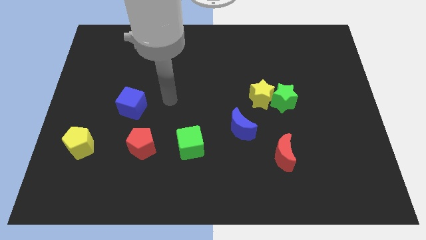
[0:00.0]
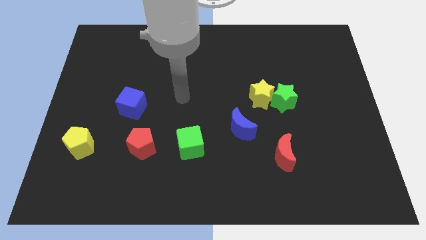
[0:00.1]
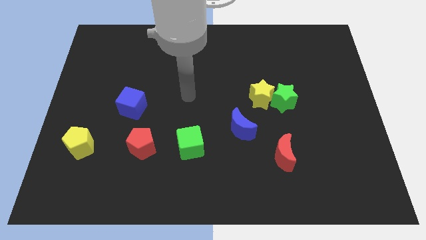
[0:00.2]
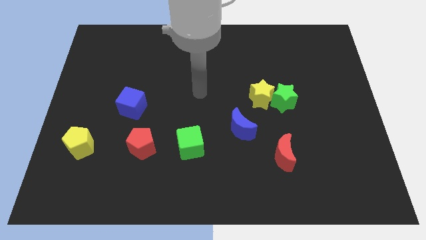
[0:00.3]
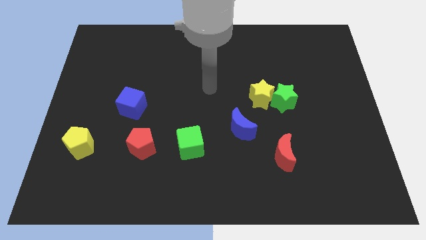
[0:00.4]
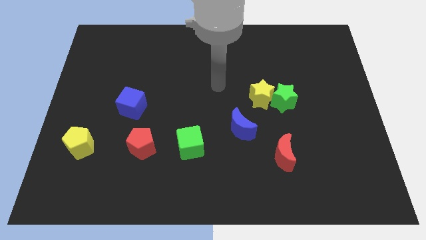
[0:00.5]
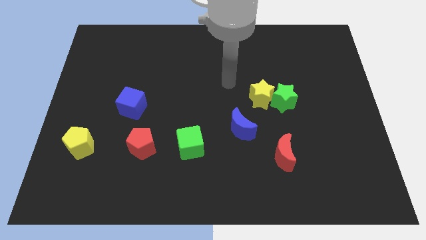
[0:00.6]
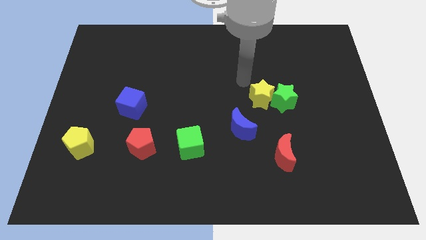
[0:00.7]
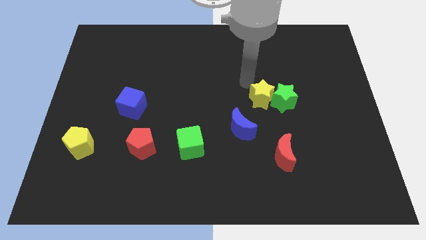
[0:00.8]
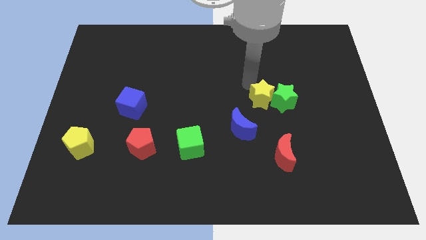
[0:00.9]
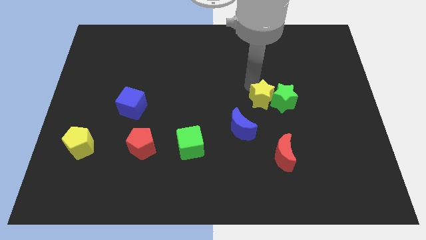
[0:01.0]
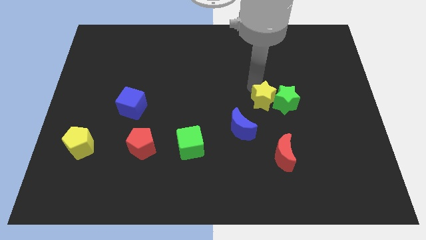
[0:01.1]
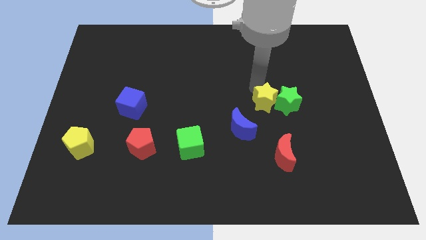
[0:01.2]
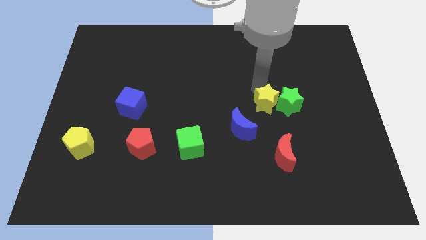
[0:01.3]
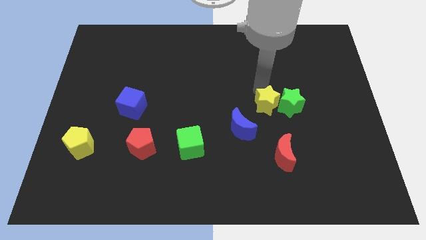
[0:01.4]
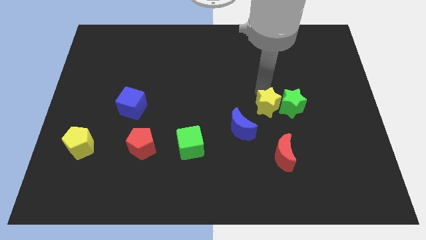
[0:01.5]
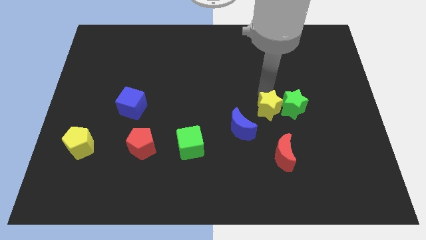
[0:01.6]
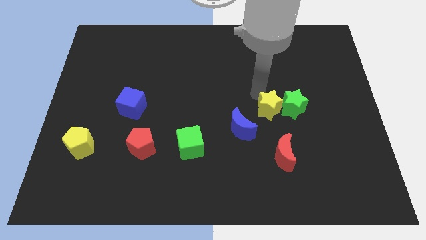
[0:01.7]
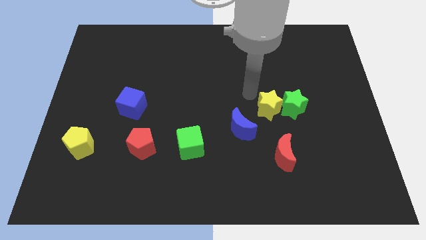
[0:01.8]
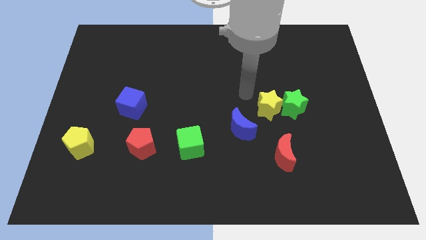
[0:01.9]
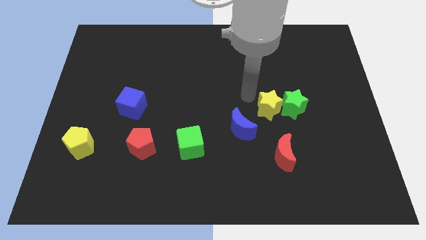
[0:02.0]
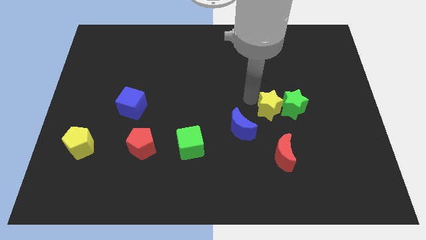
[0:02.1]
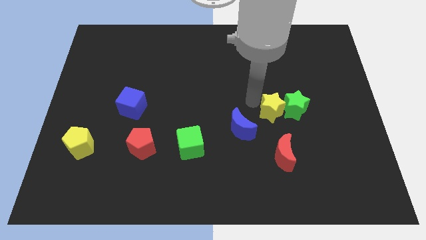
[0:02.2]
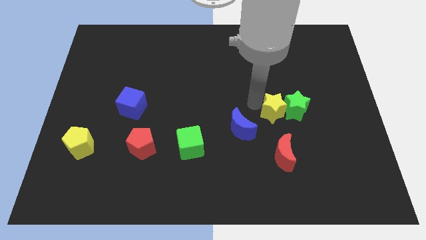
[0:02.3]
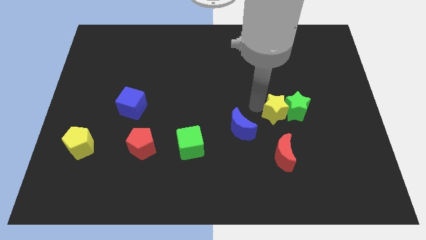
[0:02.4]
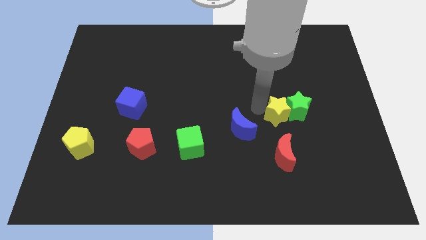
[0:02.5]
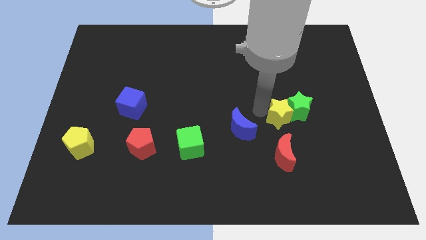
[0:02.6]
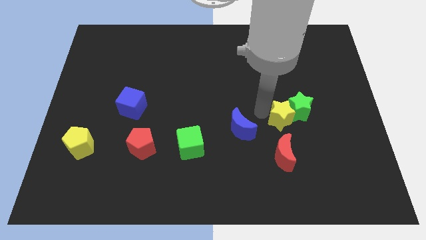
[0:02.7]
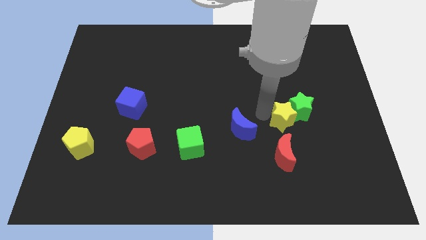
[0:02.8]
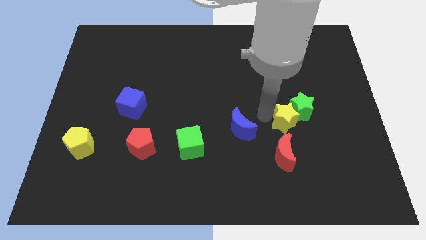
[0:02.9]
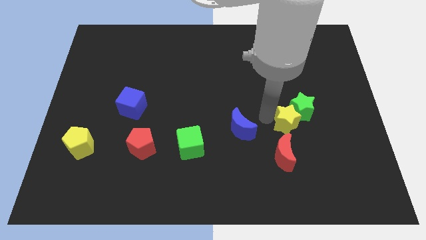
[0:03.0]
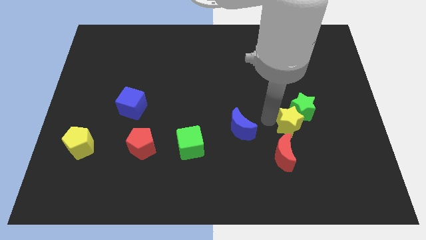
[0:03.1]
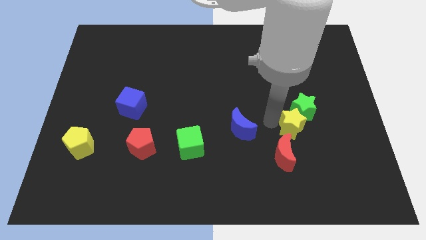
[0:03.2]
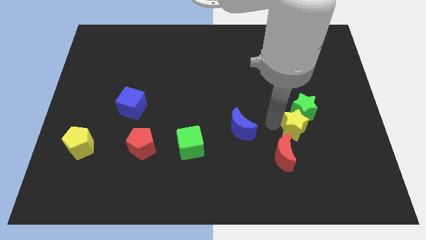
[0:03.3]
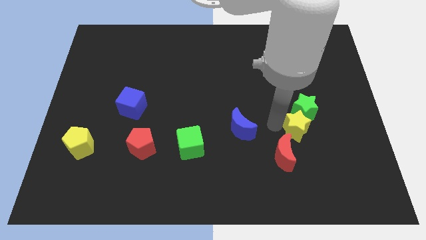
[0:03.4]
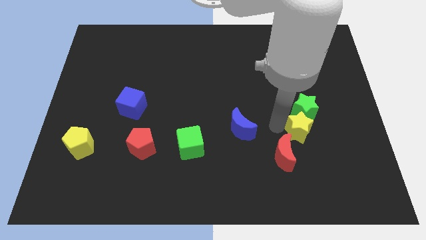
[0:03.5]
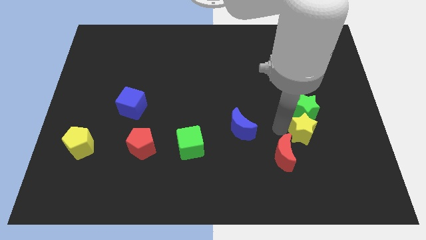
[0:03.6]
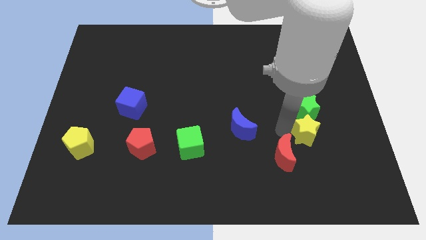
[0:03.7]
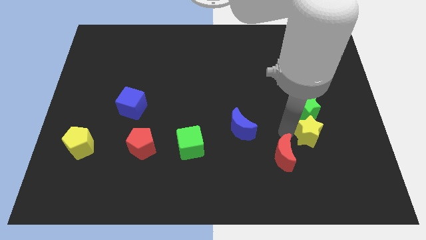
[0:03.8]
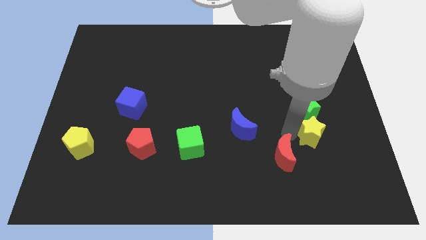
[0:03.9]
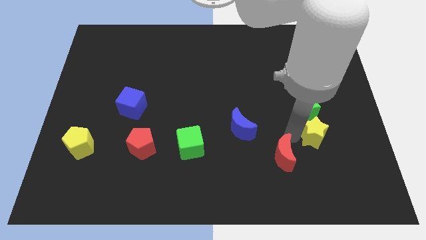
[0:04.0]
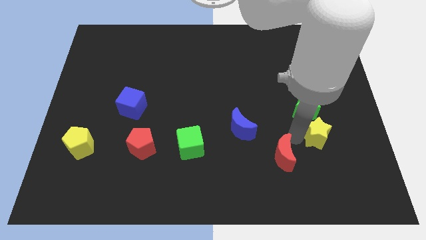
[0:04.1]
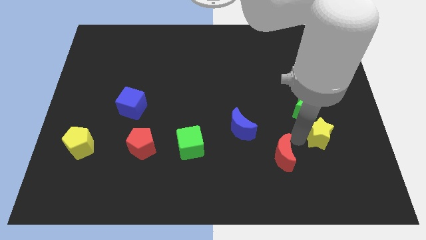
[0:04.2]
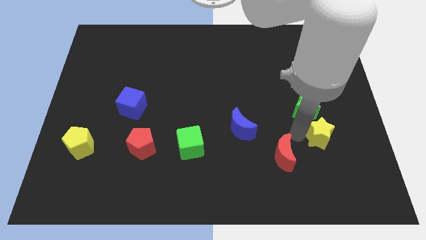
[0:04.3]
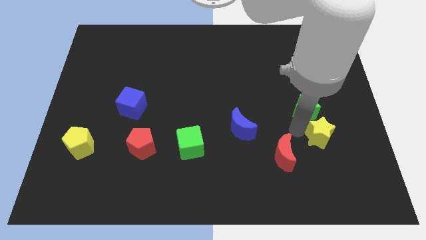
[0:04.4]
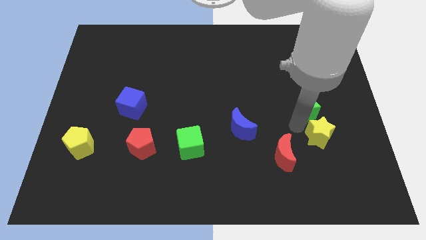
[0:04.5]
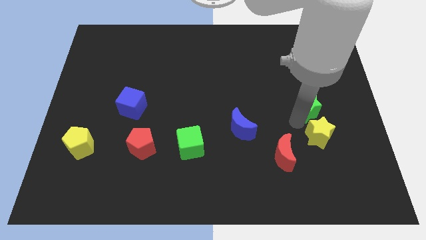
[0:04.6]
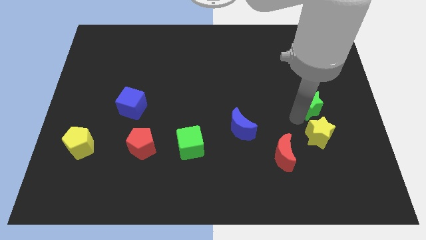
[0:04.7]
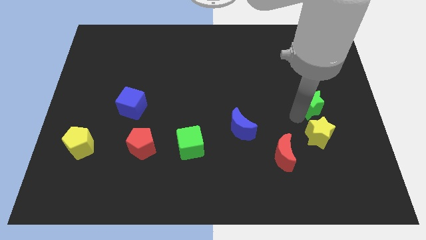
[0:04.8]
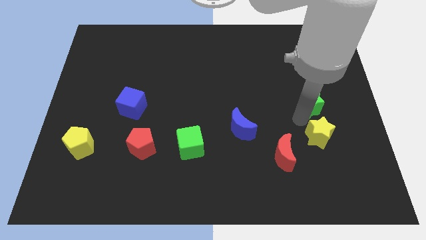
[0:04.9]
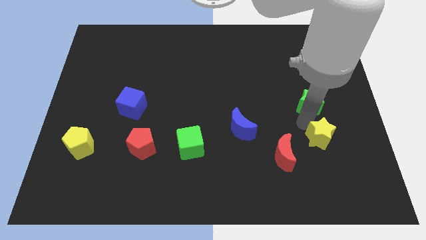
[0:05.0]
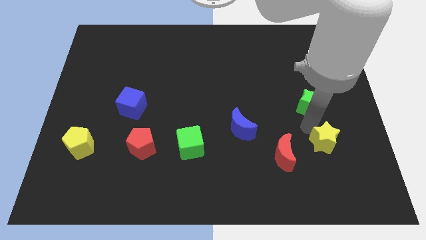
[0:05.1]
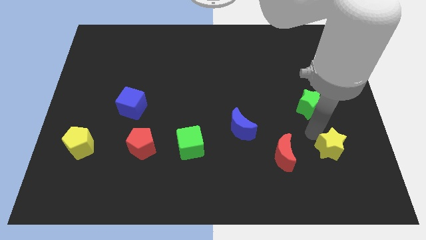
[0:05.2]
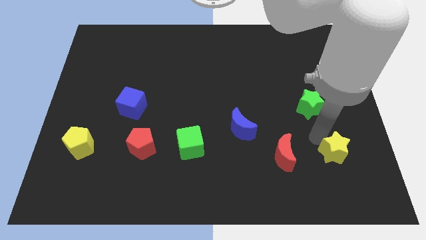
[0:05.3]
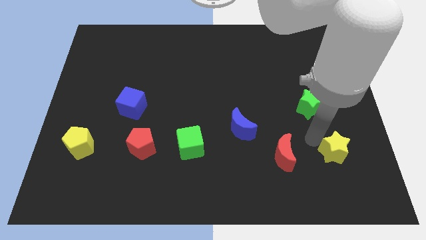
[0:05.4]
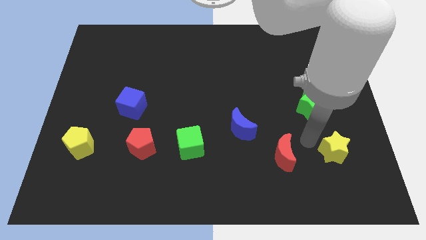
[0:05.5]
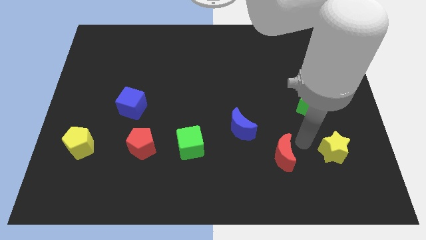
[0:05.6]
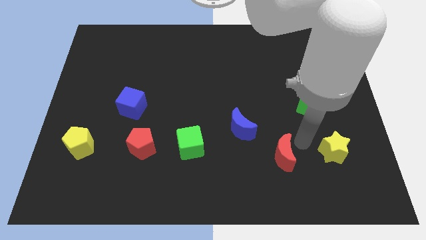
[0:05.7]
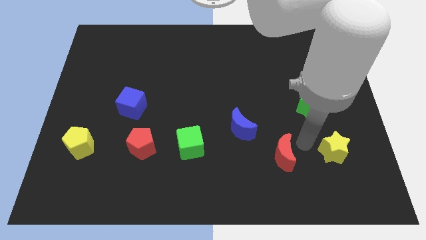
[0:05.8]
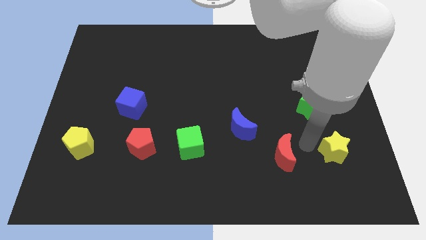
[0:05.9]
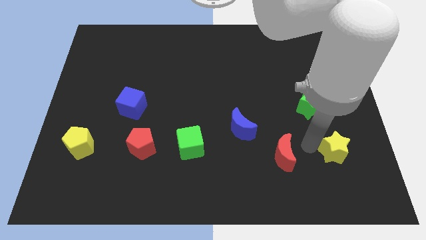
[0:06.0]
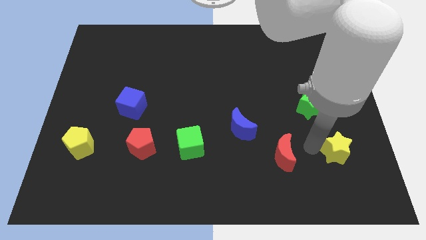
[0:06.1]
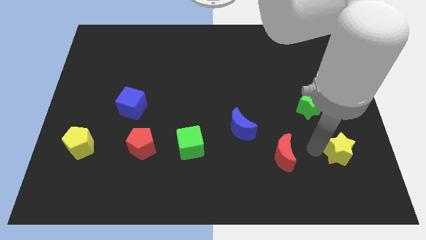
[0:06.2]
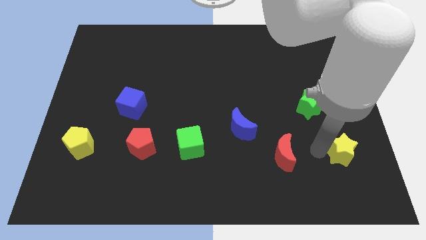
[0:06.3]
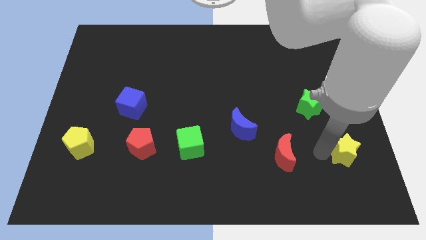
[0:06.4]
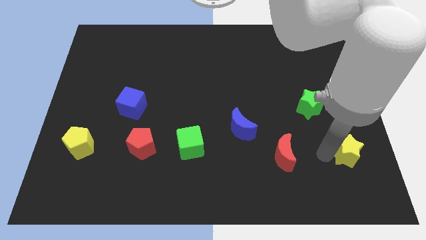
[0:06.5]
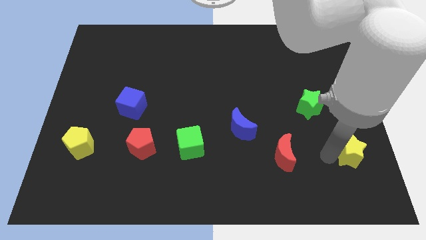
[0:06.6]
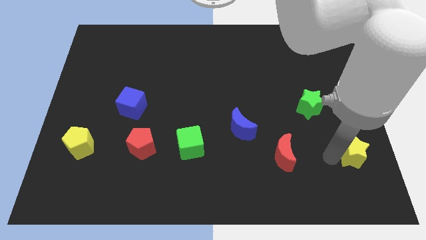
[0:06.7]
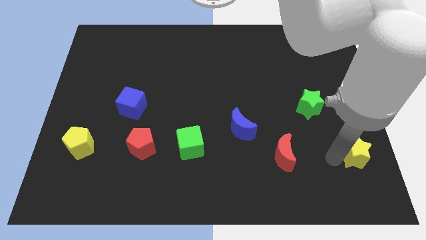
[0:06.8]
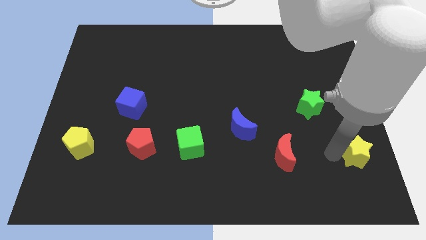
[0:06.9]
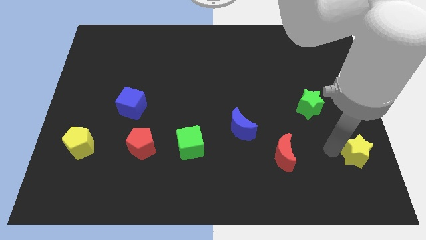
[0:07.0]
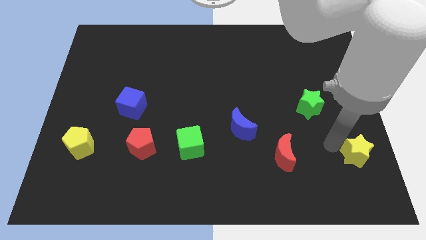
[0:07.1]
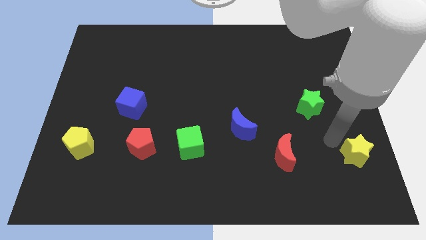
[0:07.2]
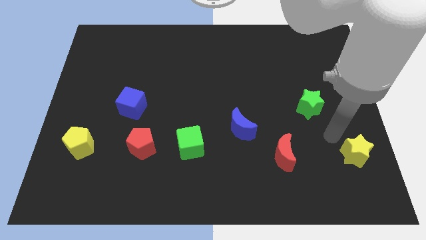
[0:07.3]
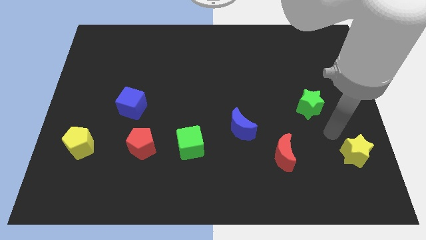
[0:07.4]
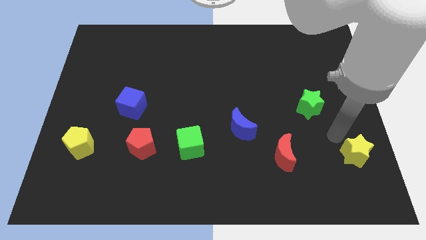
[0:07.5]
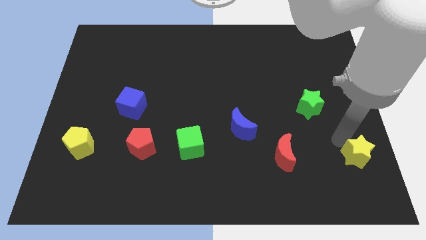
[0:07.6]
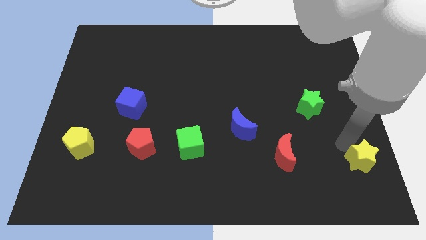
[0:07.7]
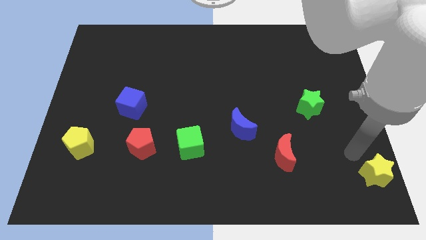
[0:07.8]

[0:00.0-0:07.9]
put the yellow star to the lower right corner
